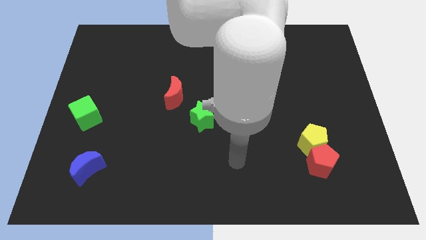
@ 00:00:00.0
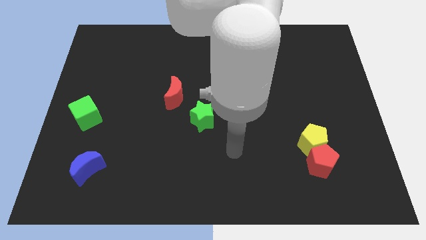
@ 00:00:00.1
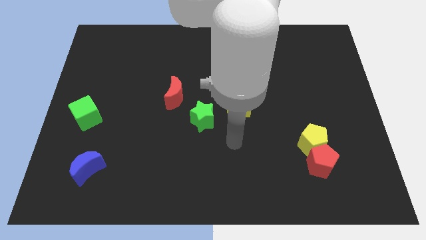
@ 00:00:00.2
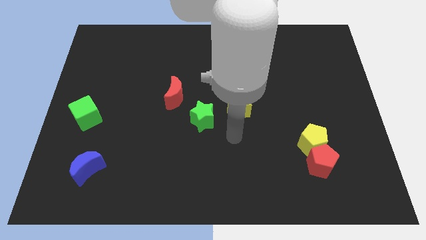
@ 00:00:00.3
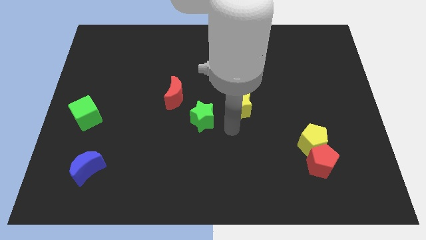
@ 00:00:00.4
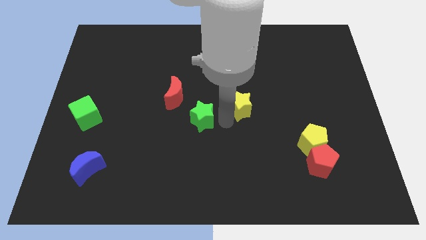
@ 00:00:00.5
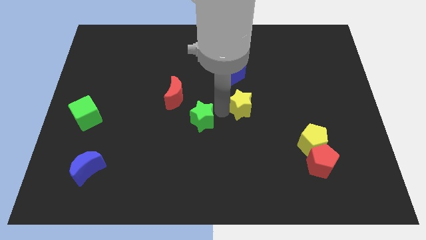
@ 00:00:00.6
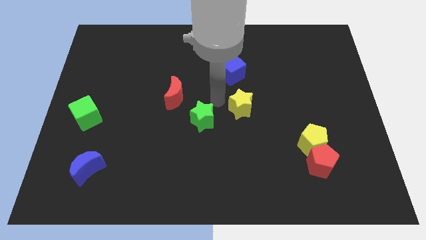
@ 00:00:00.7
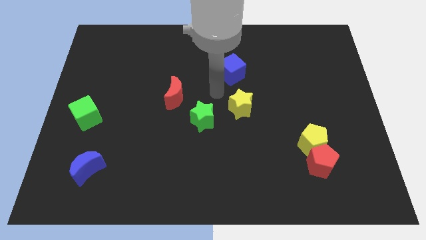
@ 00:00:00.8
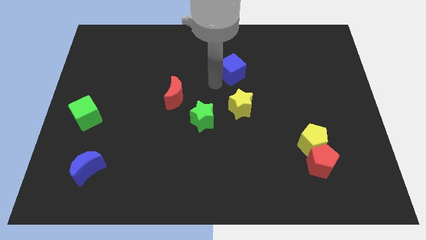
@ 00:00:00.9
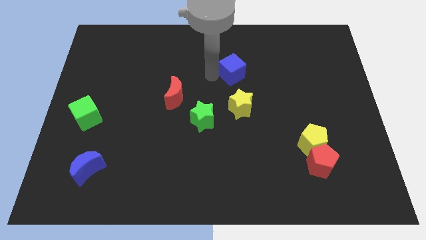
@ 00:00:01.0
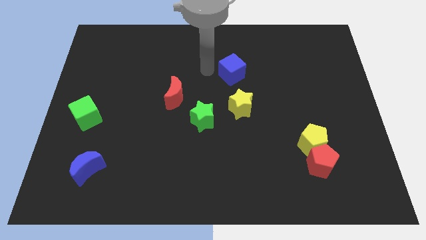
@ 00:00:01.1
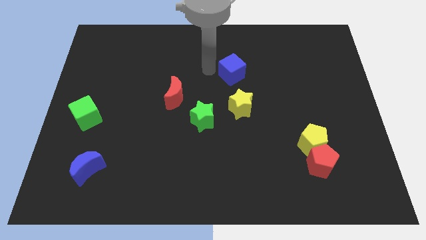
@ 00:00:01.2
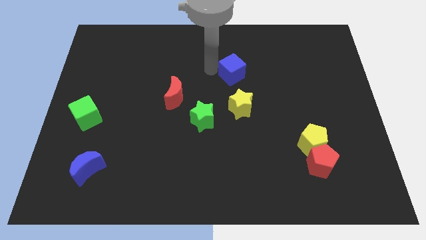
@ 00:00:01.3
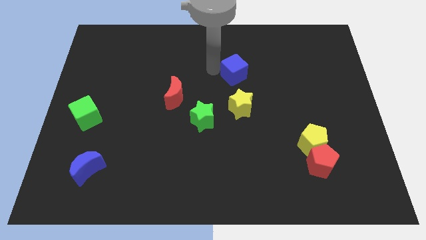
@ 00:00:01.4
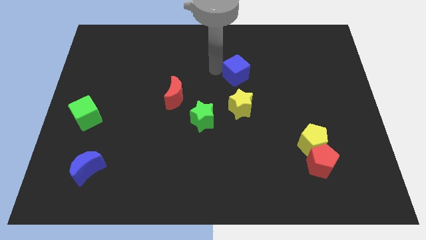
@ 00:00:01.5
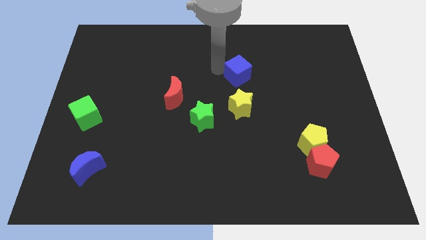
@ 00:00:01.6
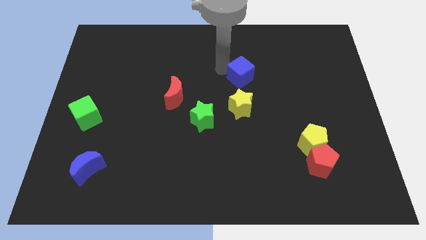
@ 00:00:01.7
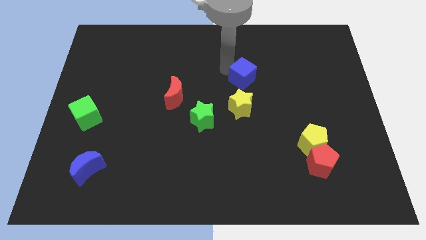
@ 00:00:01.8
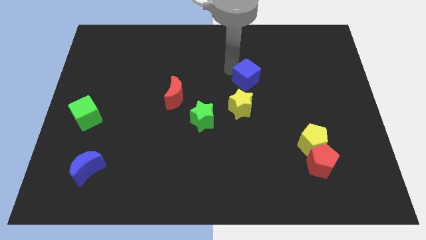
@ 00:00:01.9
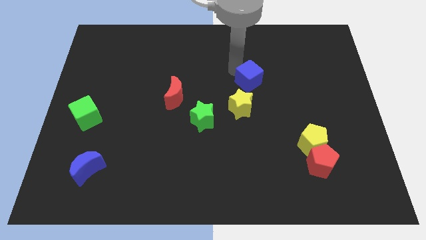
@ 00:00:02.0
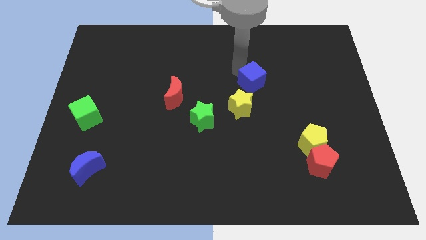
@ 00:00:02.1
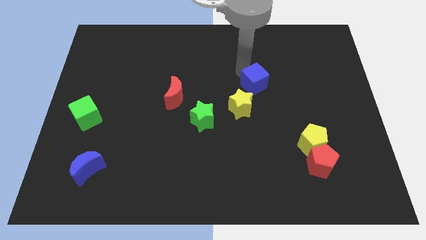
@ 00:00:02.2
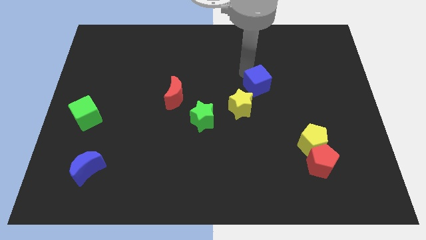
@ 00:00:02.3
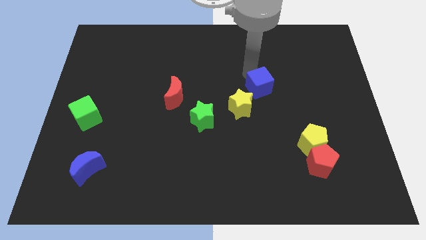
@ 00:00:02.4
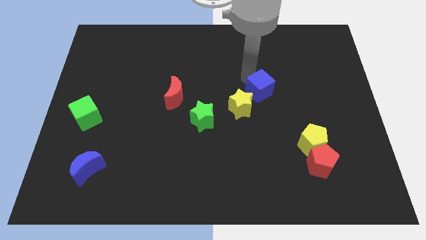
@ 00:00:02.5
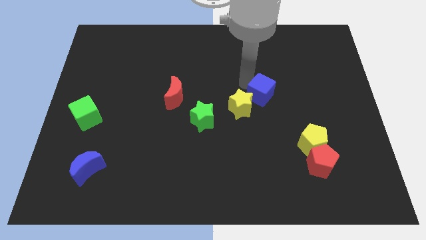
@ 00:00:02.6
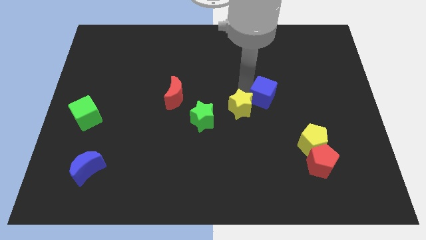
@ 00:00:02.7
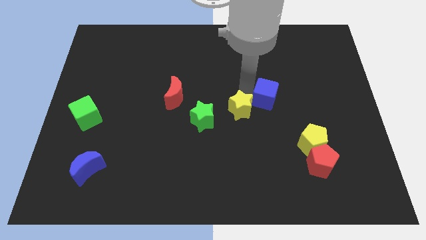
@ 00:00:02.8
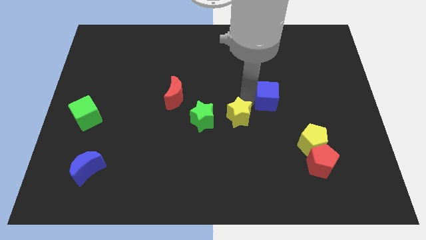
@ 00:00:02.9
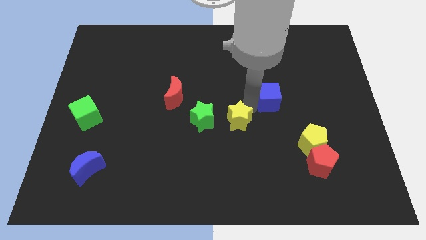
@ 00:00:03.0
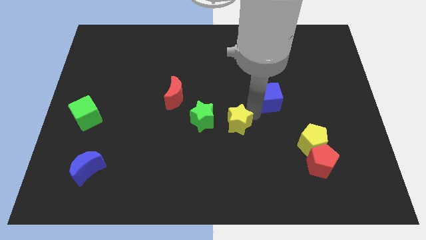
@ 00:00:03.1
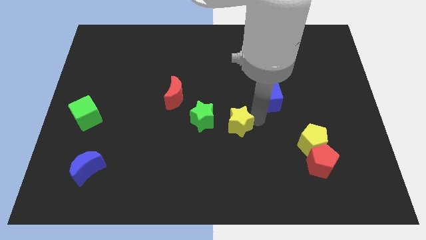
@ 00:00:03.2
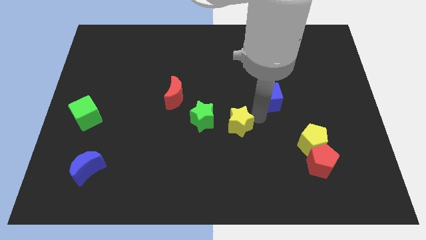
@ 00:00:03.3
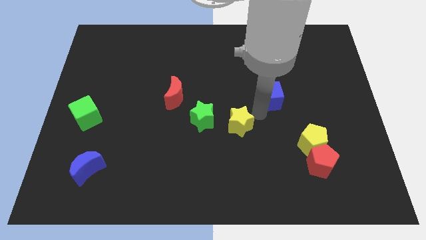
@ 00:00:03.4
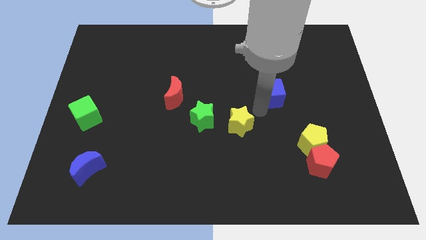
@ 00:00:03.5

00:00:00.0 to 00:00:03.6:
slide the blue cube to the right slightly

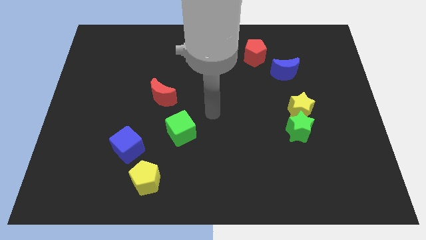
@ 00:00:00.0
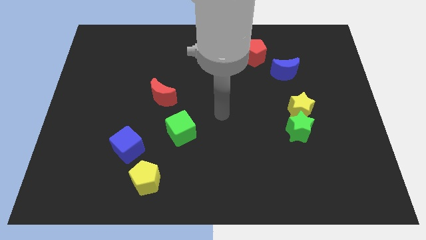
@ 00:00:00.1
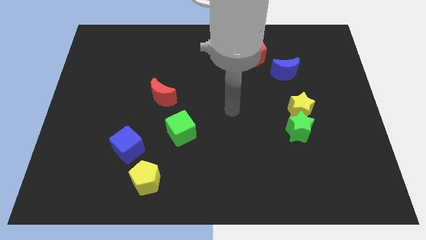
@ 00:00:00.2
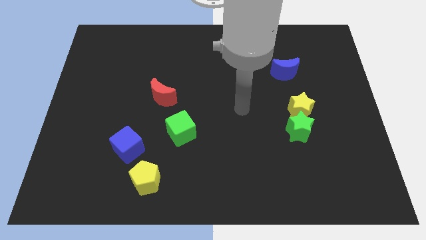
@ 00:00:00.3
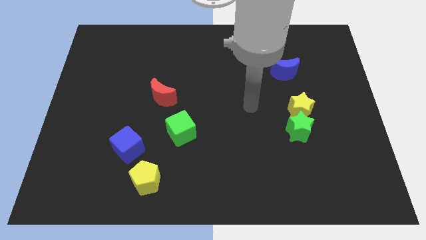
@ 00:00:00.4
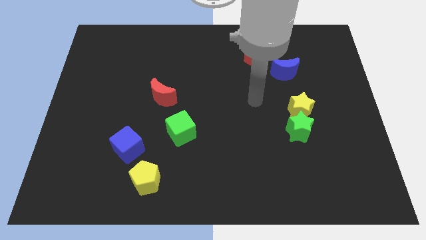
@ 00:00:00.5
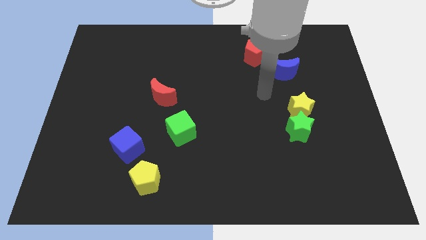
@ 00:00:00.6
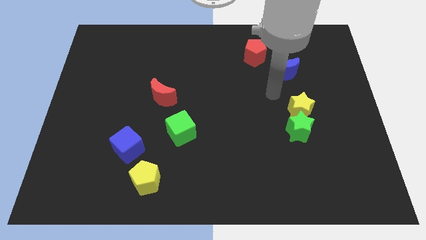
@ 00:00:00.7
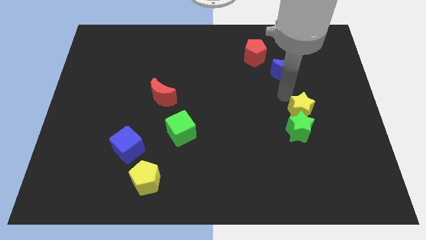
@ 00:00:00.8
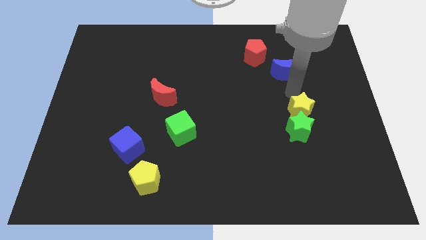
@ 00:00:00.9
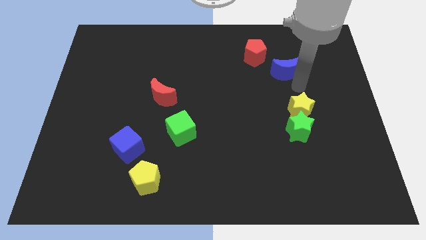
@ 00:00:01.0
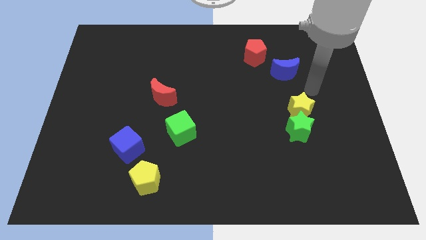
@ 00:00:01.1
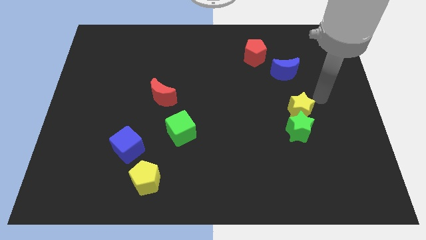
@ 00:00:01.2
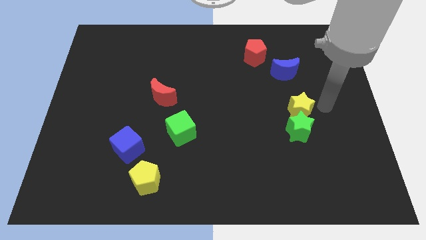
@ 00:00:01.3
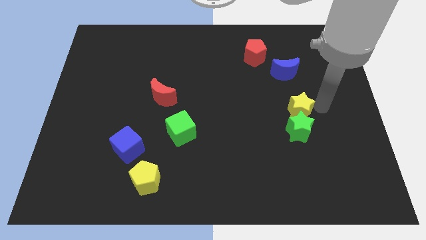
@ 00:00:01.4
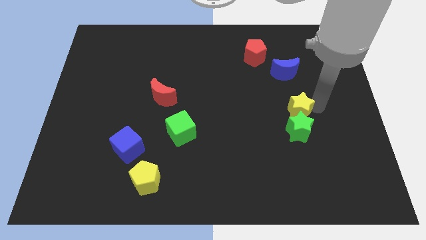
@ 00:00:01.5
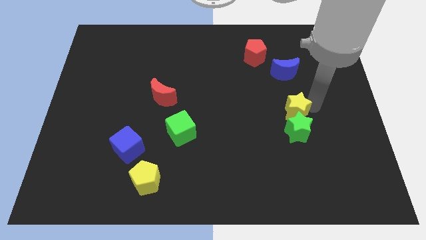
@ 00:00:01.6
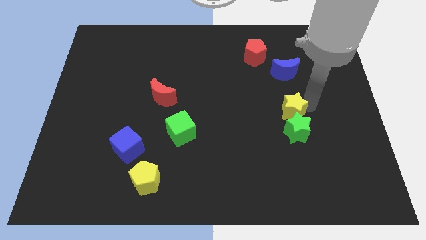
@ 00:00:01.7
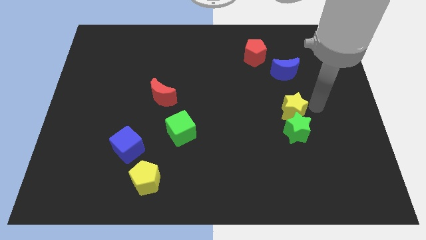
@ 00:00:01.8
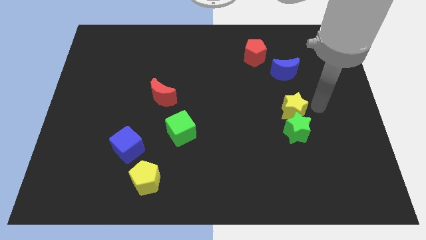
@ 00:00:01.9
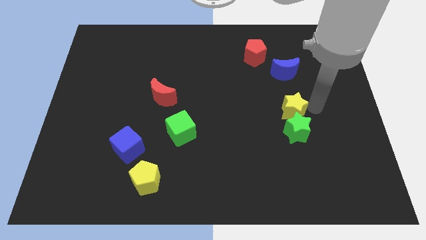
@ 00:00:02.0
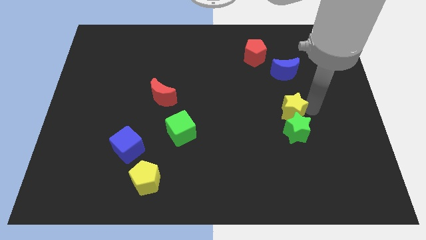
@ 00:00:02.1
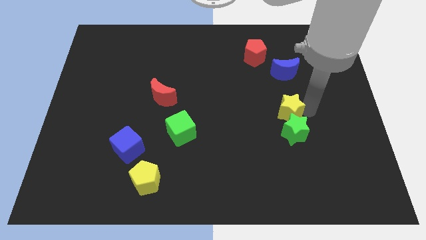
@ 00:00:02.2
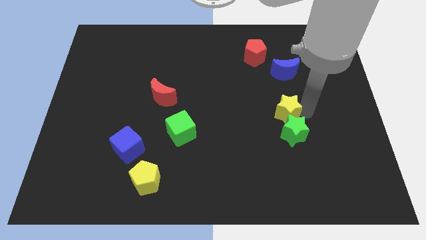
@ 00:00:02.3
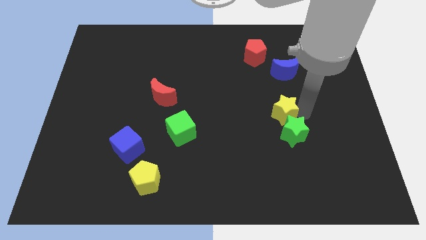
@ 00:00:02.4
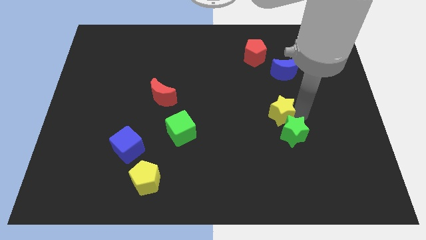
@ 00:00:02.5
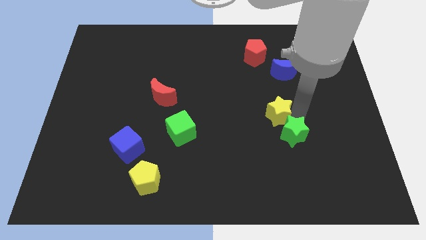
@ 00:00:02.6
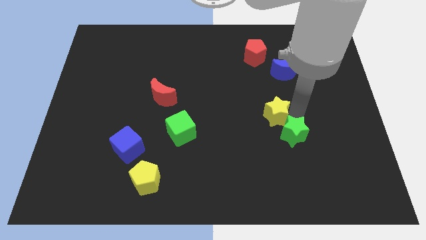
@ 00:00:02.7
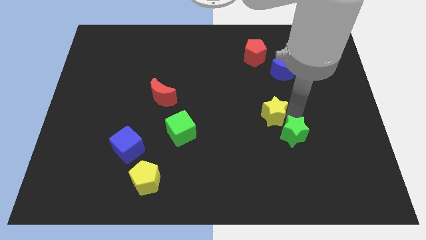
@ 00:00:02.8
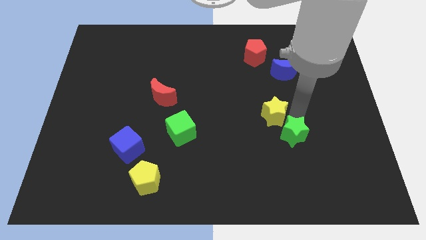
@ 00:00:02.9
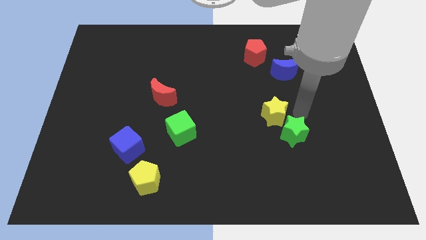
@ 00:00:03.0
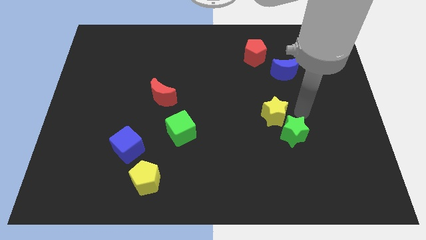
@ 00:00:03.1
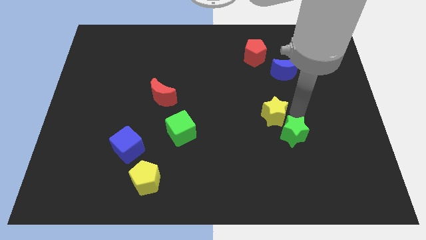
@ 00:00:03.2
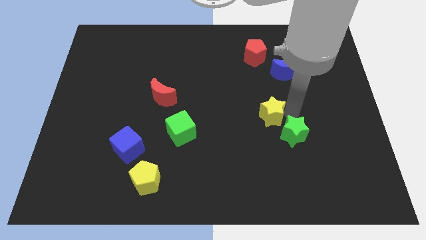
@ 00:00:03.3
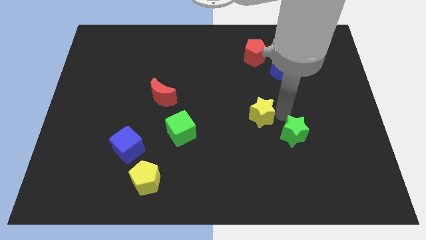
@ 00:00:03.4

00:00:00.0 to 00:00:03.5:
push the yellow star somewhat left

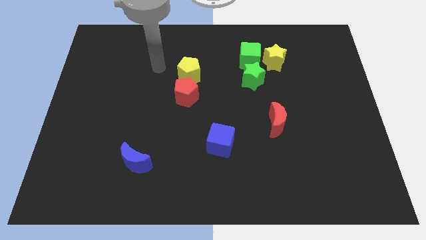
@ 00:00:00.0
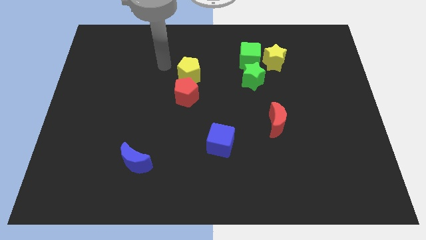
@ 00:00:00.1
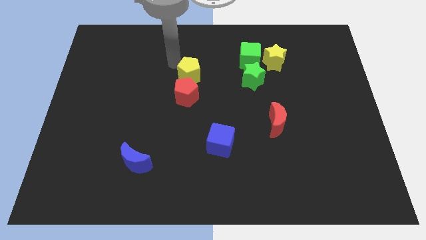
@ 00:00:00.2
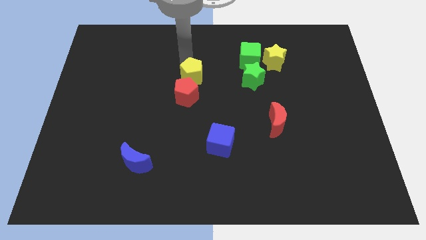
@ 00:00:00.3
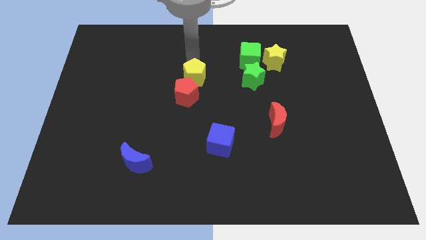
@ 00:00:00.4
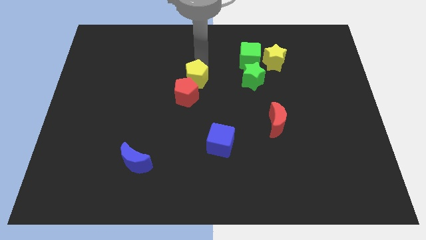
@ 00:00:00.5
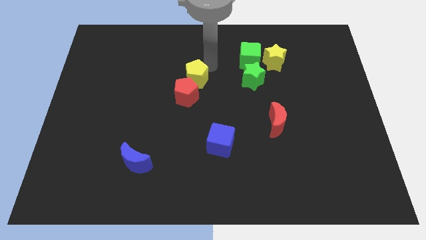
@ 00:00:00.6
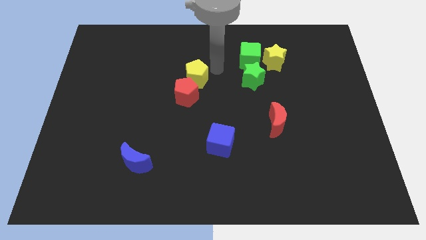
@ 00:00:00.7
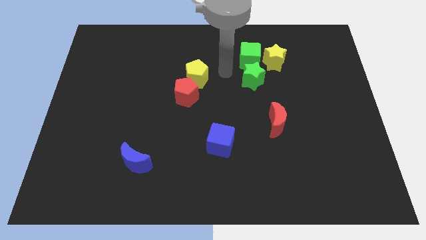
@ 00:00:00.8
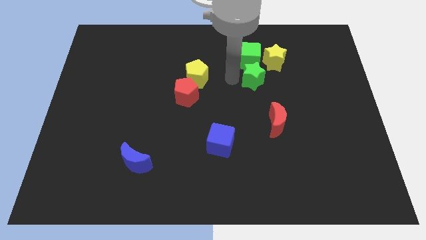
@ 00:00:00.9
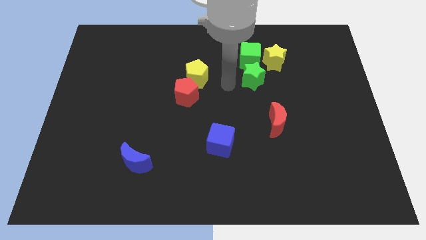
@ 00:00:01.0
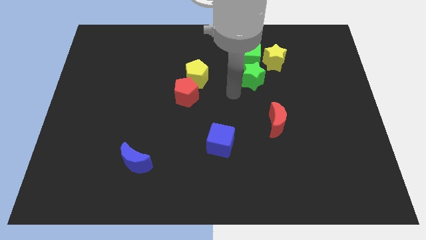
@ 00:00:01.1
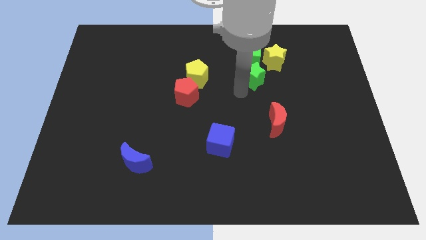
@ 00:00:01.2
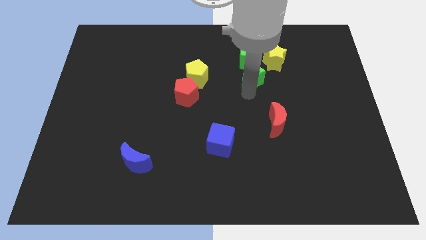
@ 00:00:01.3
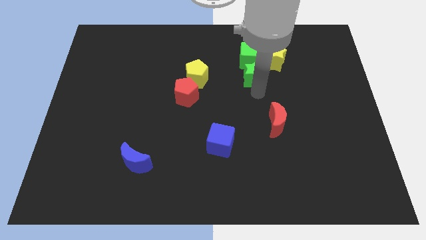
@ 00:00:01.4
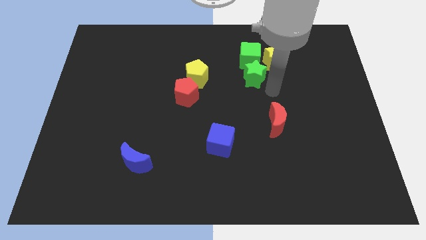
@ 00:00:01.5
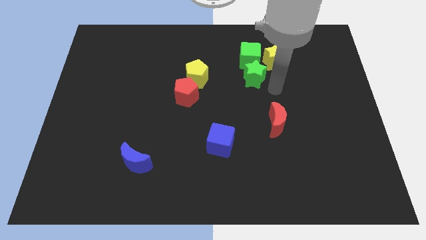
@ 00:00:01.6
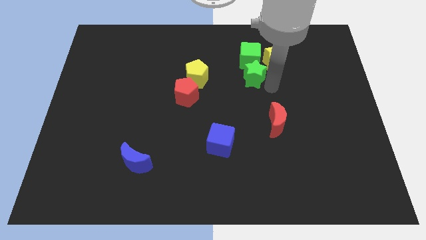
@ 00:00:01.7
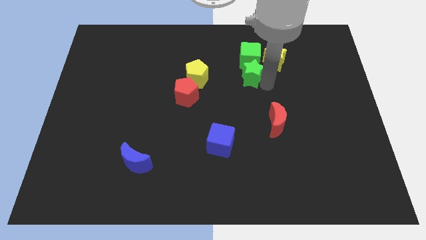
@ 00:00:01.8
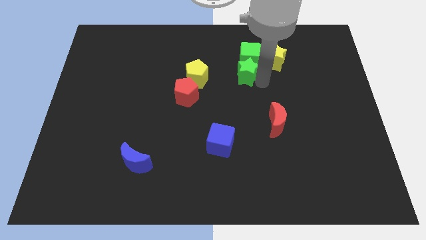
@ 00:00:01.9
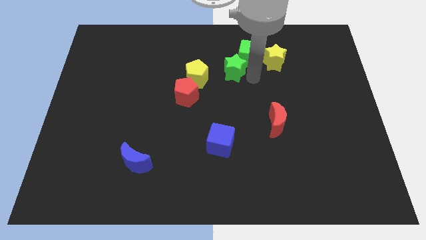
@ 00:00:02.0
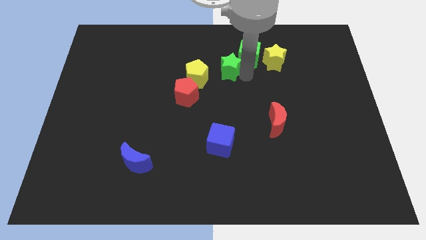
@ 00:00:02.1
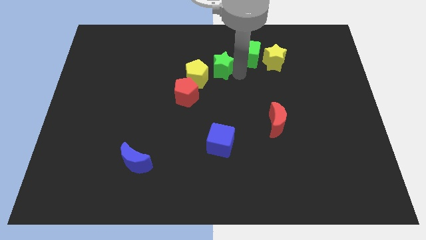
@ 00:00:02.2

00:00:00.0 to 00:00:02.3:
move the green star a bit to the left
